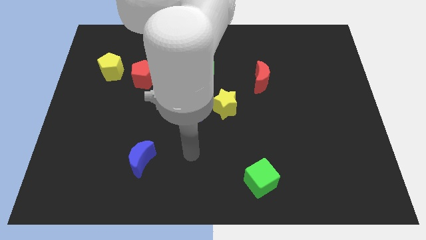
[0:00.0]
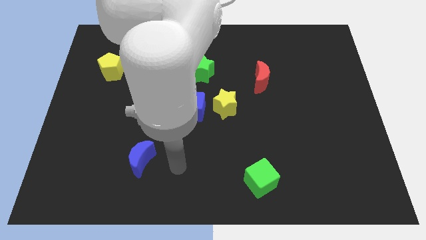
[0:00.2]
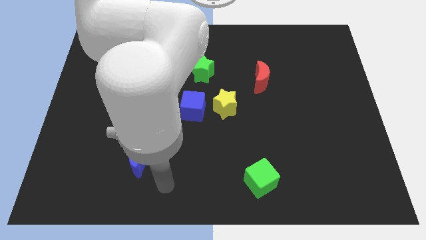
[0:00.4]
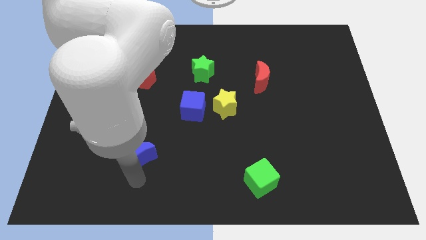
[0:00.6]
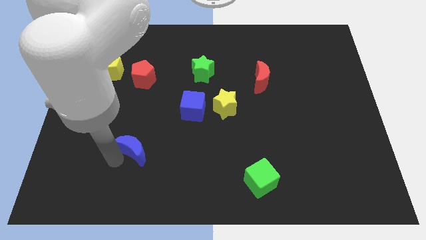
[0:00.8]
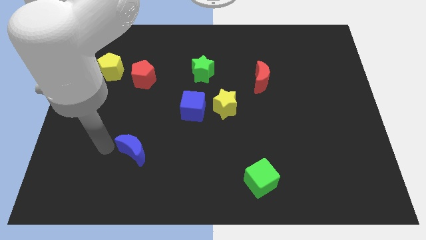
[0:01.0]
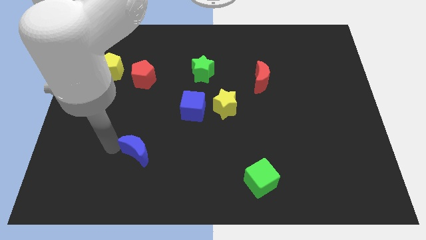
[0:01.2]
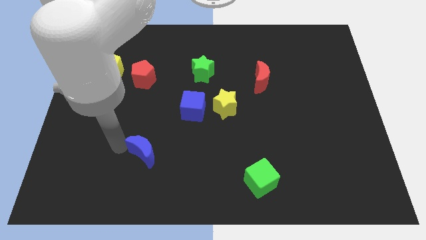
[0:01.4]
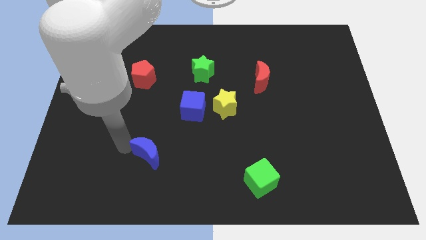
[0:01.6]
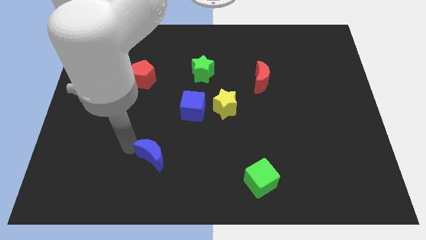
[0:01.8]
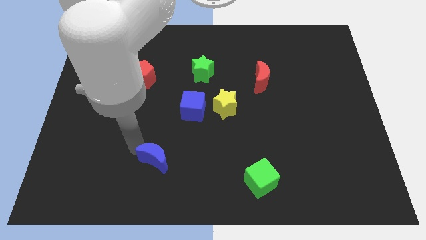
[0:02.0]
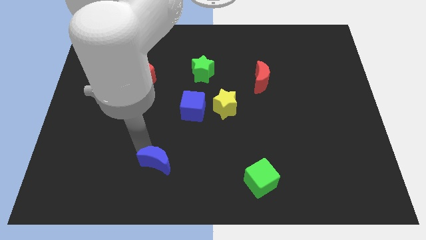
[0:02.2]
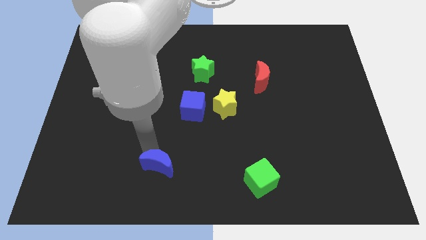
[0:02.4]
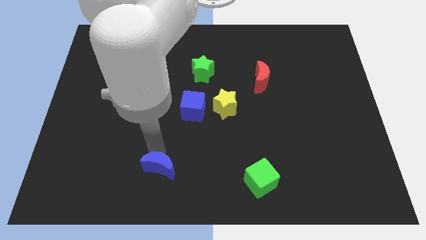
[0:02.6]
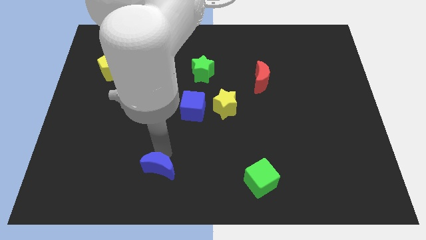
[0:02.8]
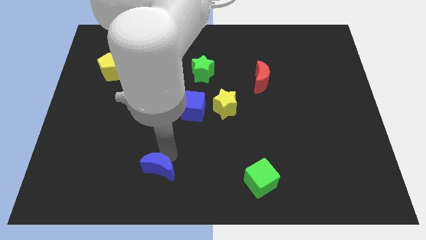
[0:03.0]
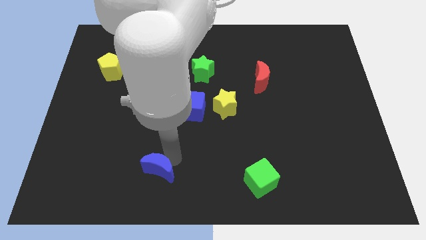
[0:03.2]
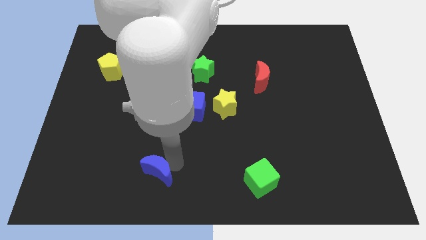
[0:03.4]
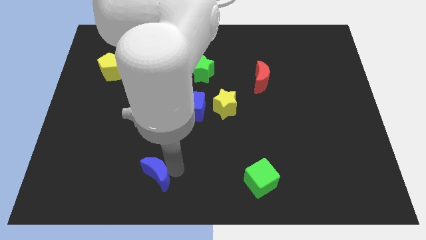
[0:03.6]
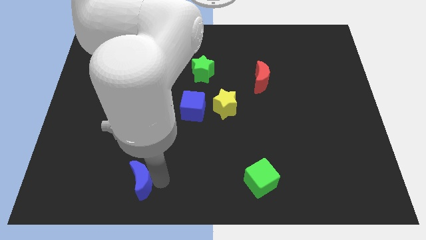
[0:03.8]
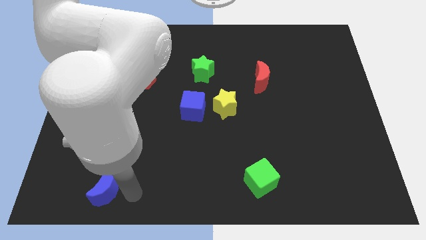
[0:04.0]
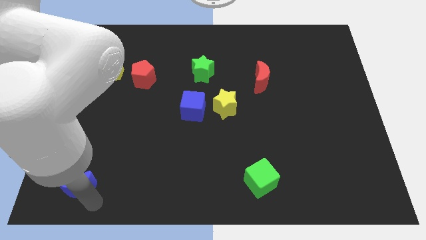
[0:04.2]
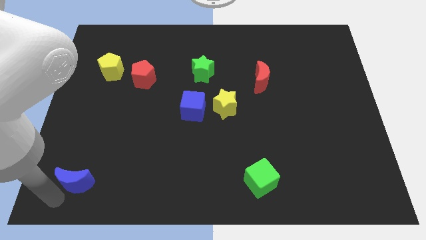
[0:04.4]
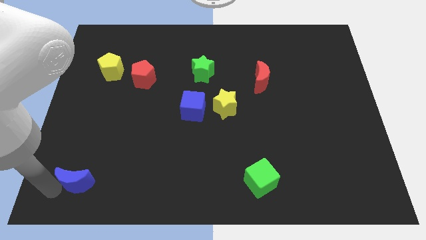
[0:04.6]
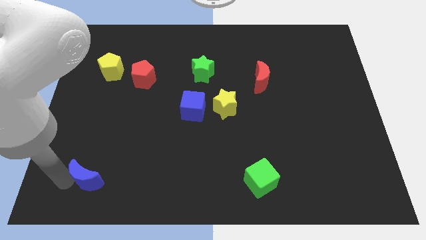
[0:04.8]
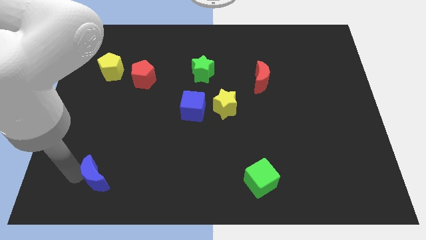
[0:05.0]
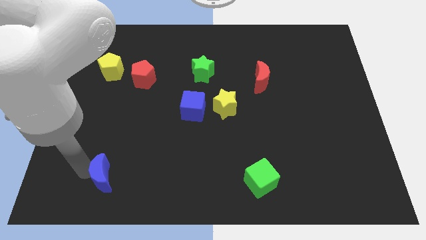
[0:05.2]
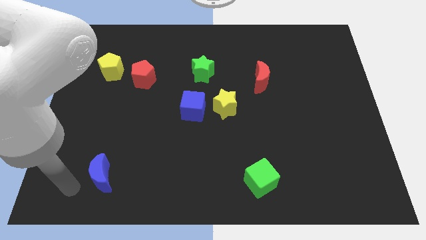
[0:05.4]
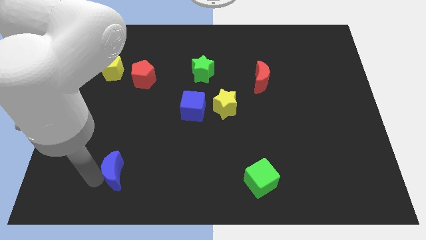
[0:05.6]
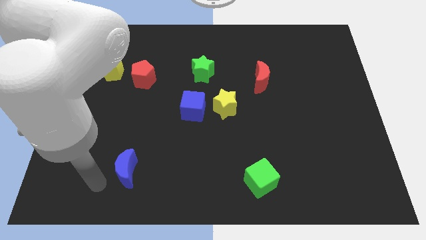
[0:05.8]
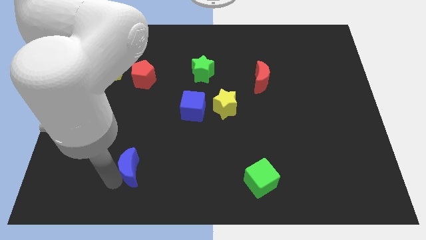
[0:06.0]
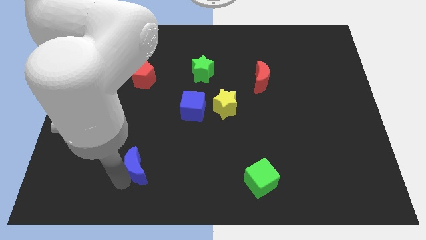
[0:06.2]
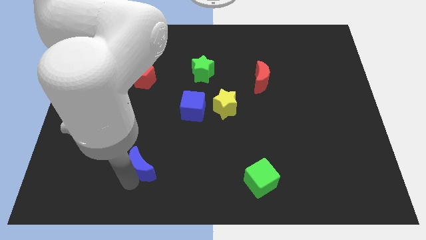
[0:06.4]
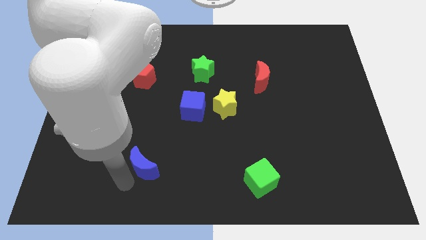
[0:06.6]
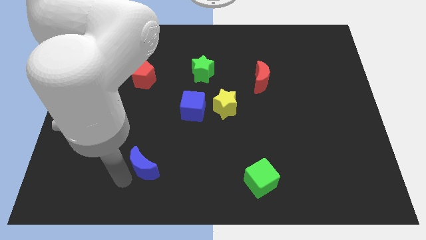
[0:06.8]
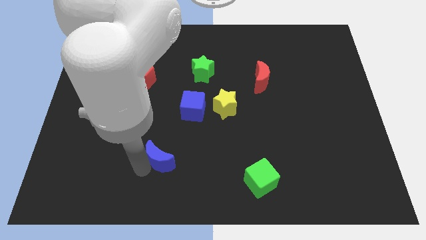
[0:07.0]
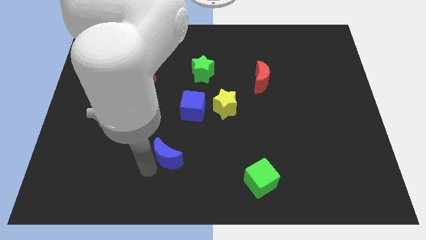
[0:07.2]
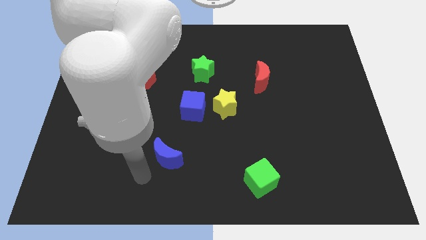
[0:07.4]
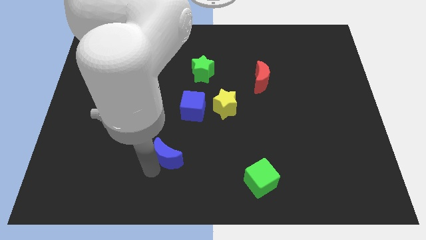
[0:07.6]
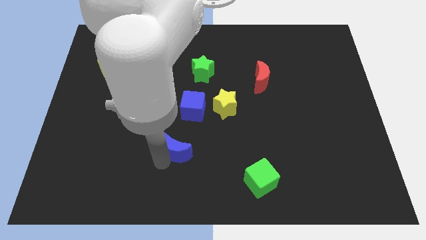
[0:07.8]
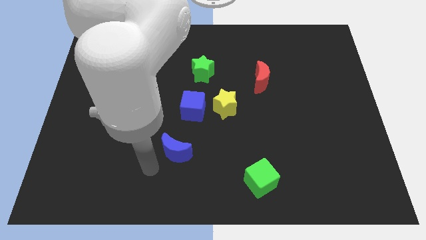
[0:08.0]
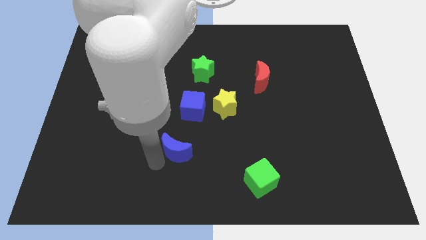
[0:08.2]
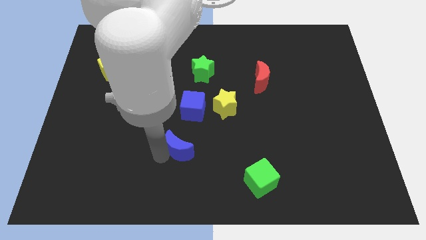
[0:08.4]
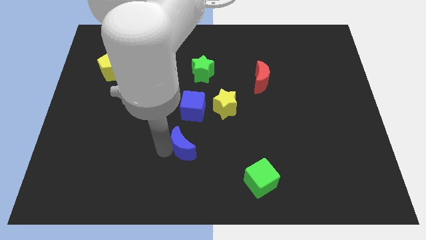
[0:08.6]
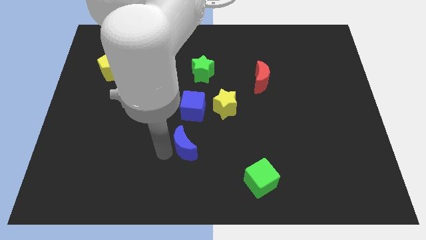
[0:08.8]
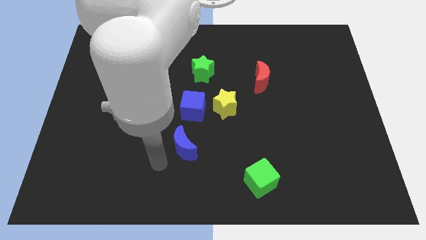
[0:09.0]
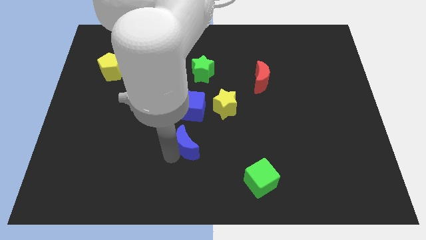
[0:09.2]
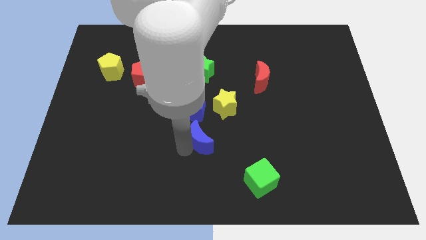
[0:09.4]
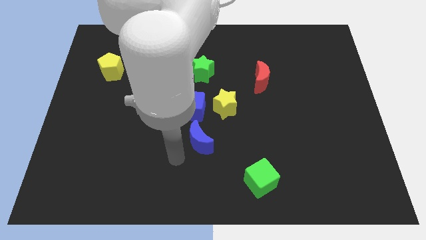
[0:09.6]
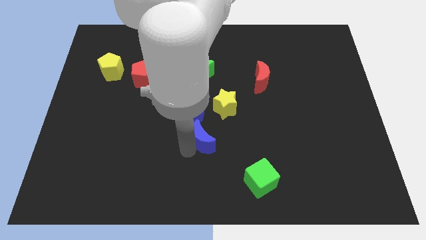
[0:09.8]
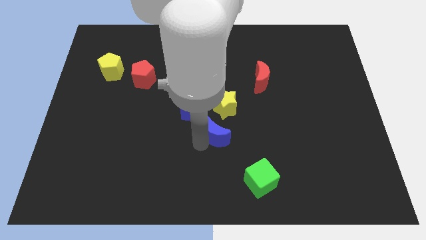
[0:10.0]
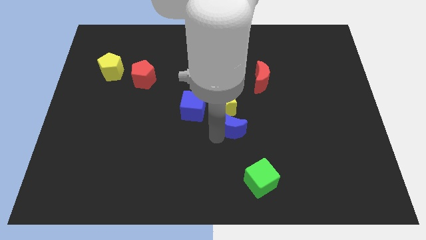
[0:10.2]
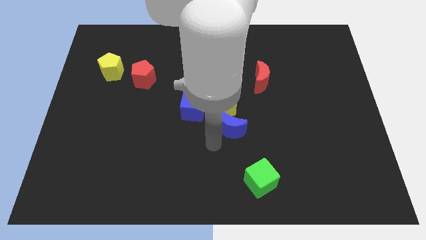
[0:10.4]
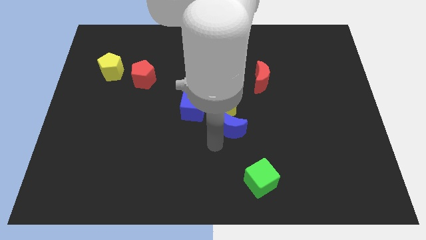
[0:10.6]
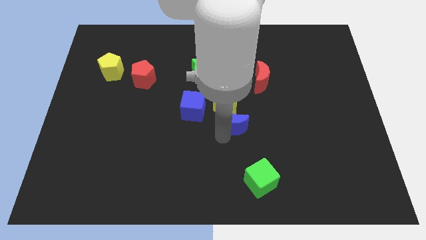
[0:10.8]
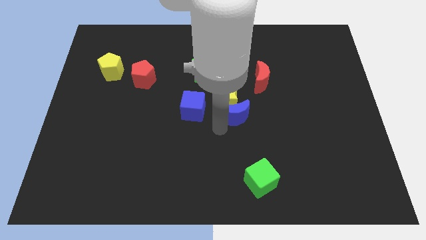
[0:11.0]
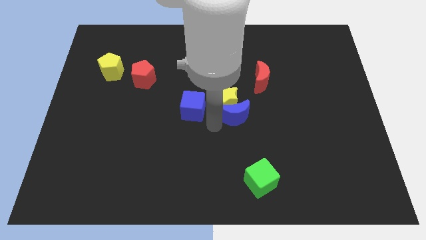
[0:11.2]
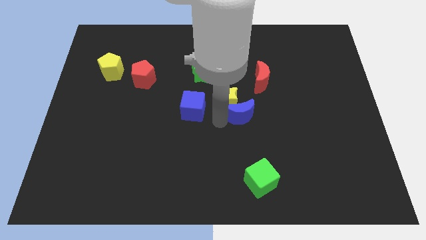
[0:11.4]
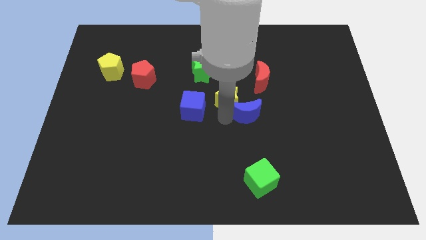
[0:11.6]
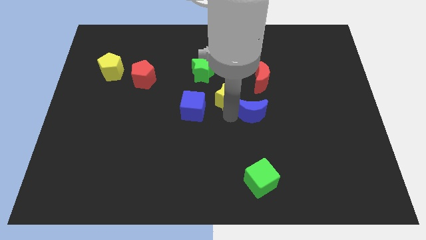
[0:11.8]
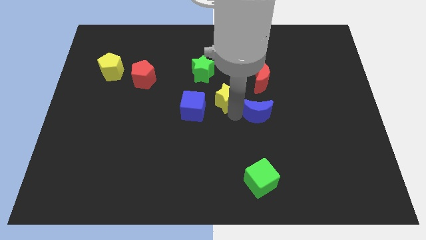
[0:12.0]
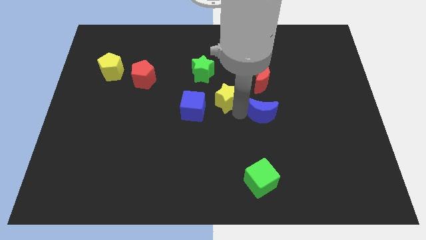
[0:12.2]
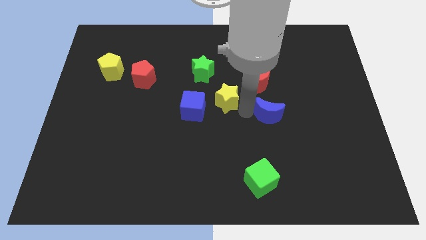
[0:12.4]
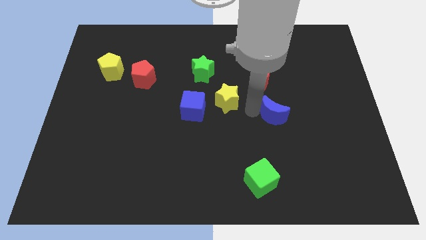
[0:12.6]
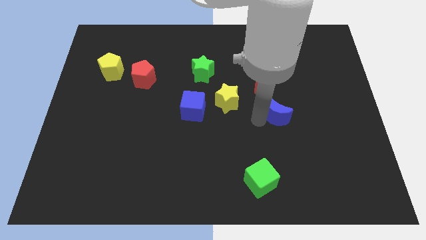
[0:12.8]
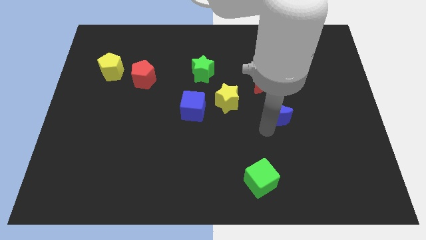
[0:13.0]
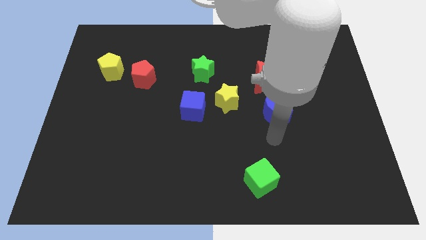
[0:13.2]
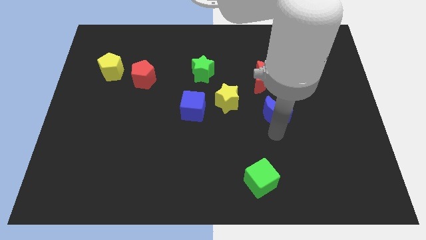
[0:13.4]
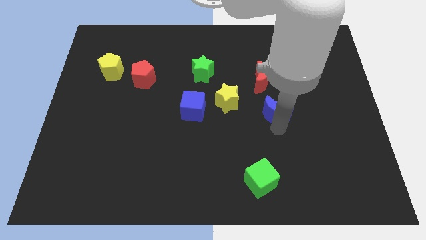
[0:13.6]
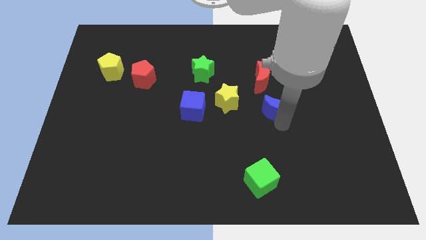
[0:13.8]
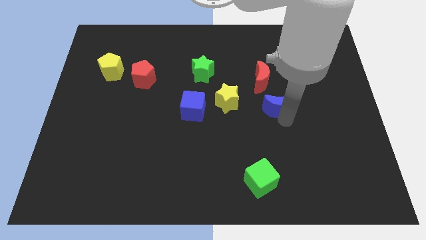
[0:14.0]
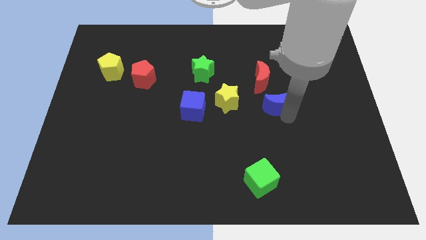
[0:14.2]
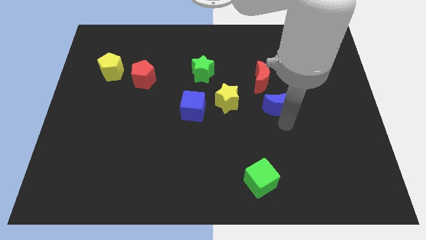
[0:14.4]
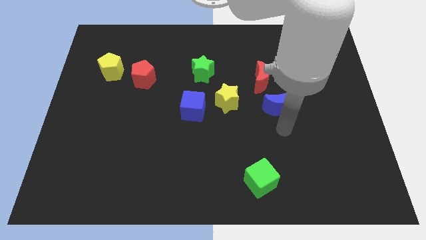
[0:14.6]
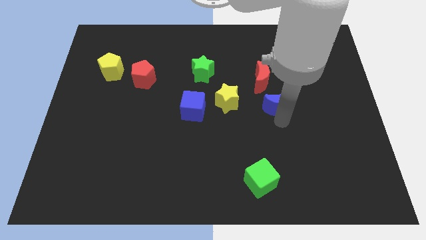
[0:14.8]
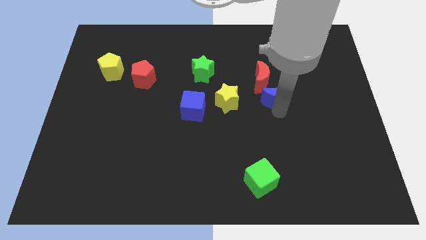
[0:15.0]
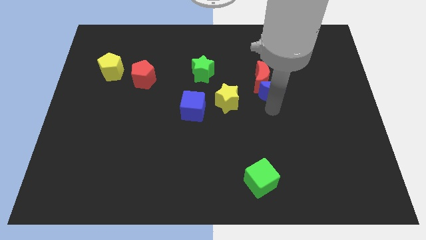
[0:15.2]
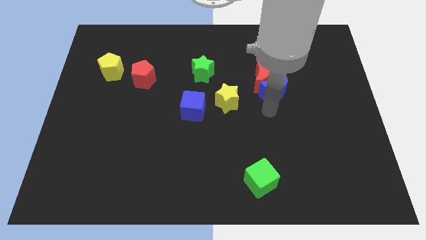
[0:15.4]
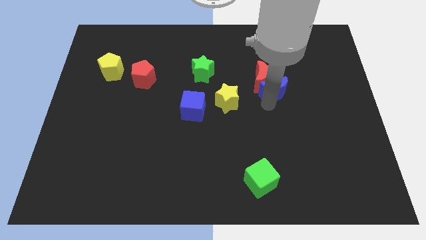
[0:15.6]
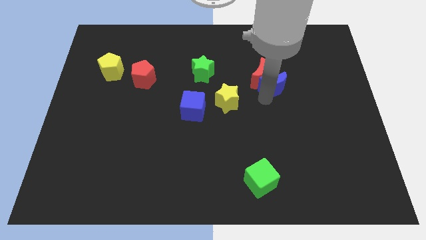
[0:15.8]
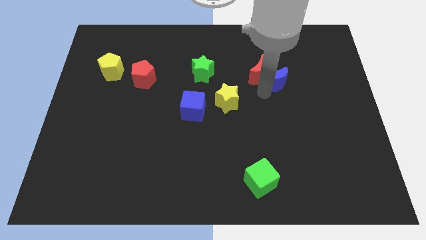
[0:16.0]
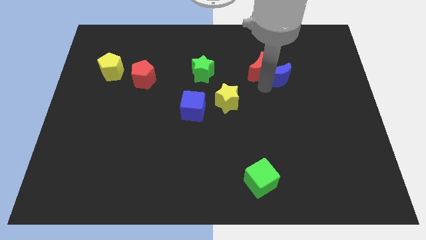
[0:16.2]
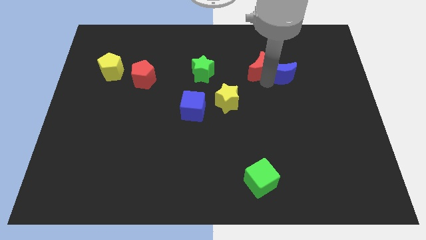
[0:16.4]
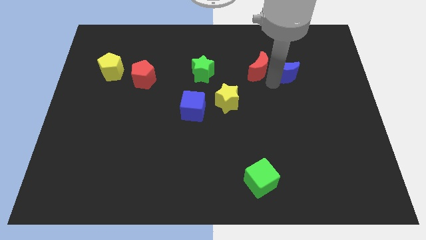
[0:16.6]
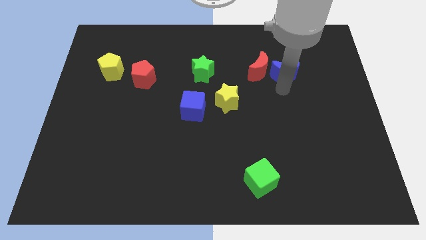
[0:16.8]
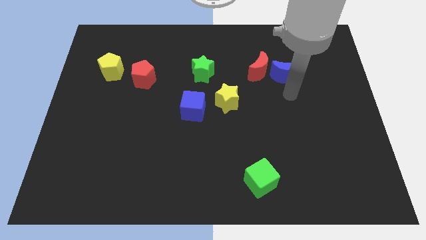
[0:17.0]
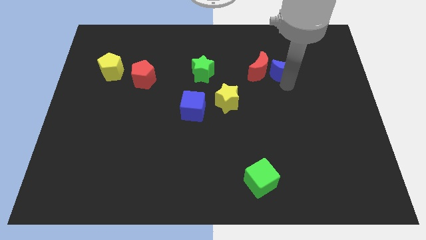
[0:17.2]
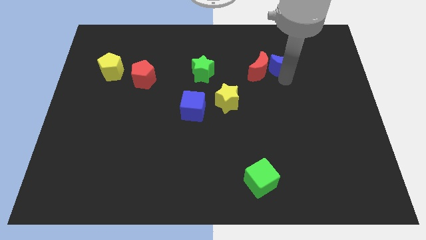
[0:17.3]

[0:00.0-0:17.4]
slide the blue moon to the top right of the red moon
